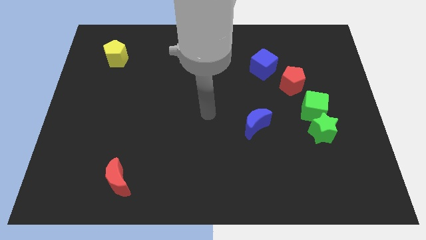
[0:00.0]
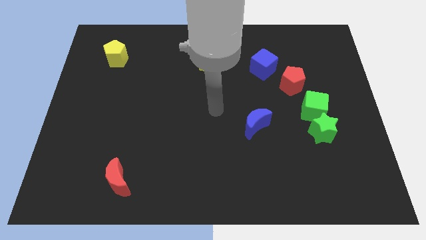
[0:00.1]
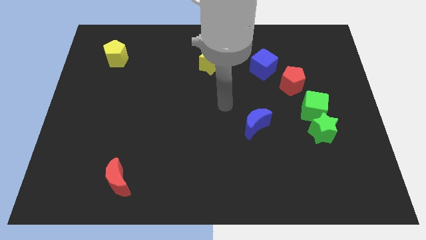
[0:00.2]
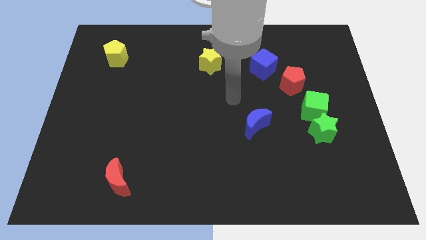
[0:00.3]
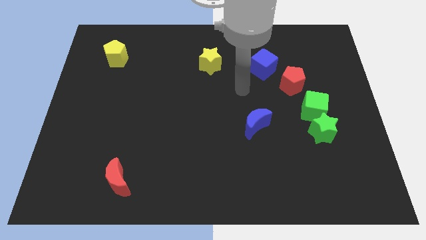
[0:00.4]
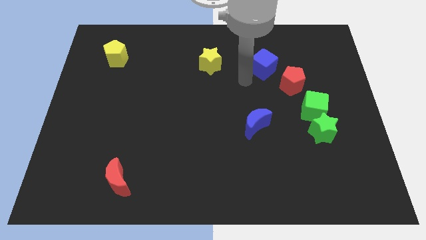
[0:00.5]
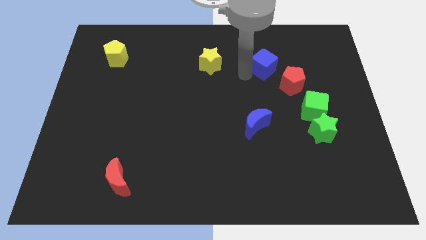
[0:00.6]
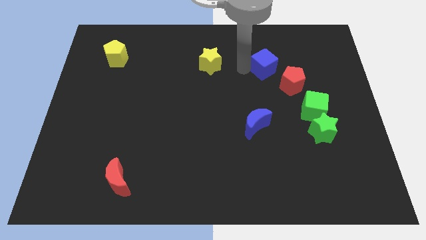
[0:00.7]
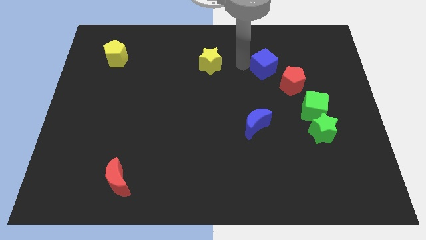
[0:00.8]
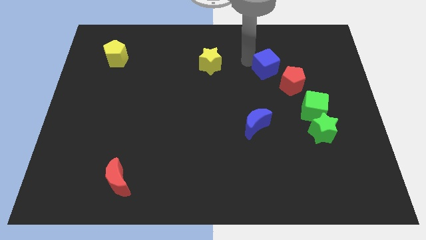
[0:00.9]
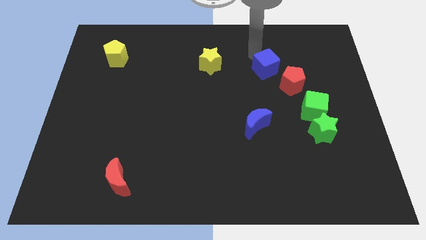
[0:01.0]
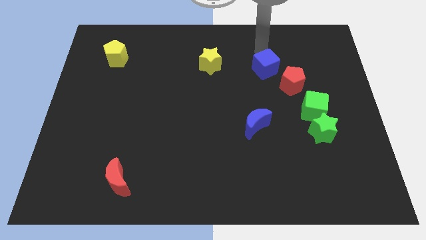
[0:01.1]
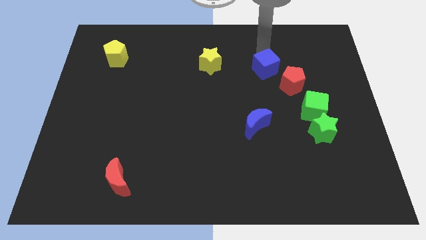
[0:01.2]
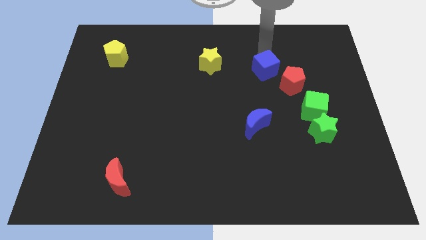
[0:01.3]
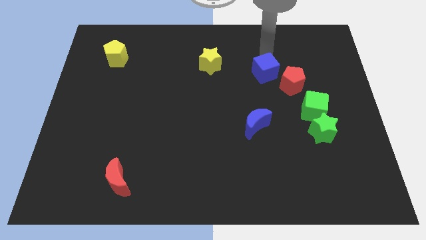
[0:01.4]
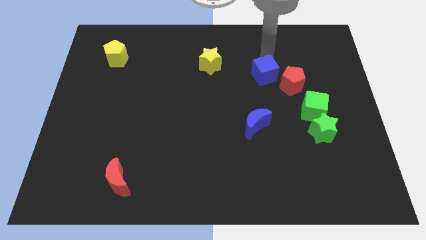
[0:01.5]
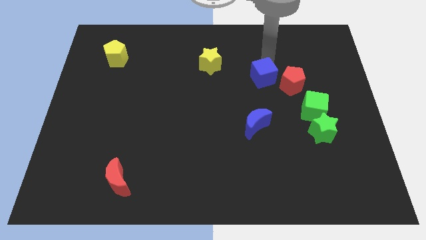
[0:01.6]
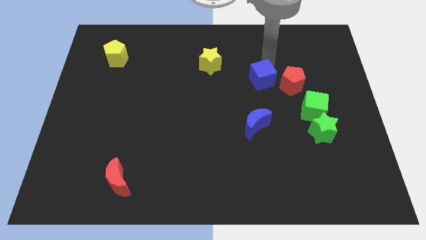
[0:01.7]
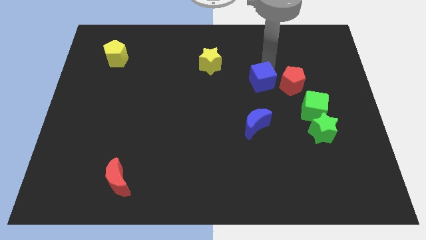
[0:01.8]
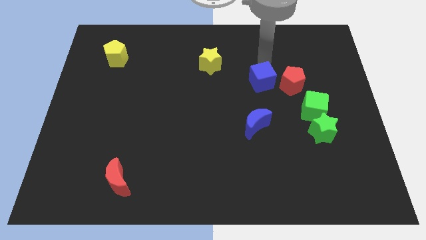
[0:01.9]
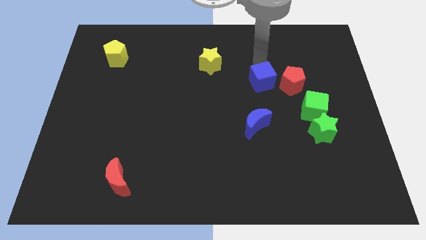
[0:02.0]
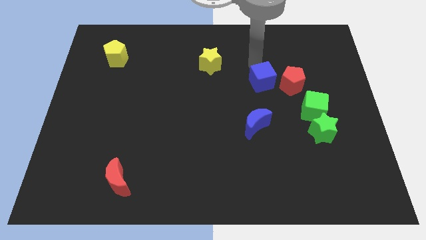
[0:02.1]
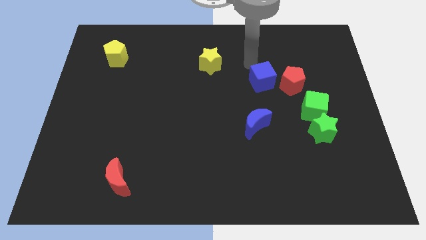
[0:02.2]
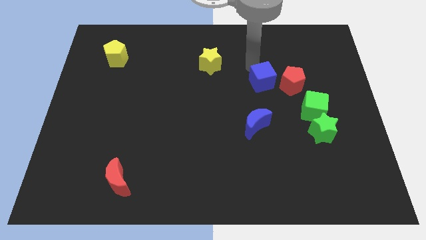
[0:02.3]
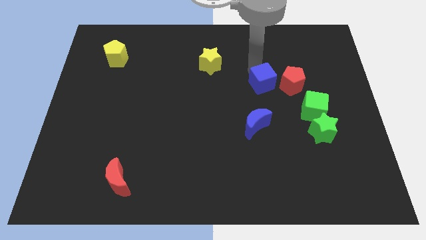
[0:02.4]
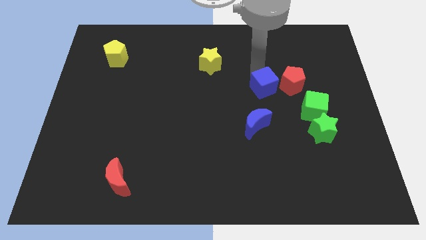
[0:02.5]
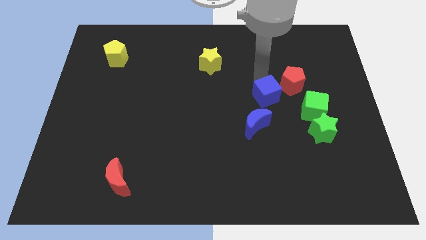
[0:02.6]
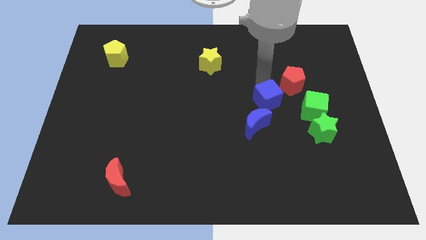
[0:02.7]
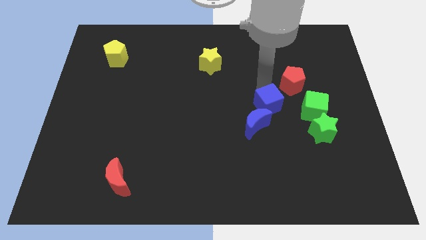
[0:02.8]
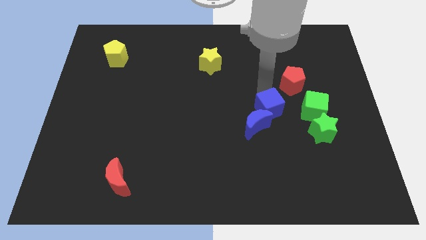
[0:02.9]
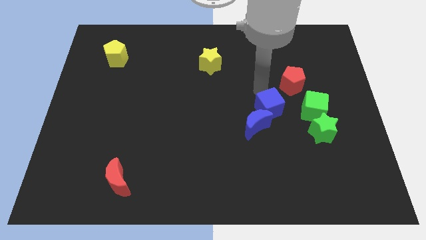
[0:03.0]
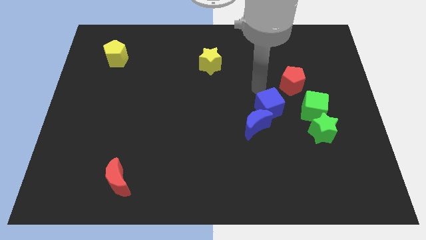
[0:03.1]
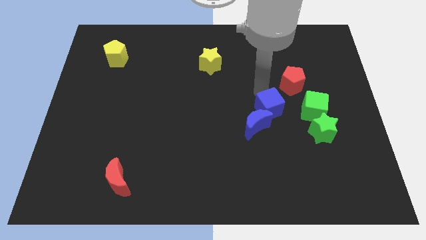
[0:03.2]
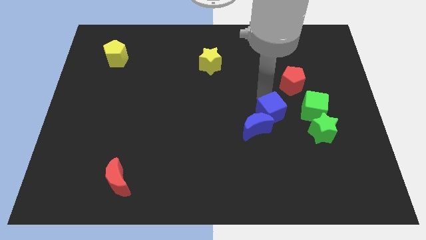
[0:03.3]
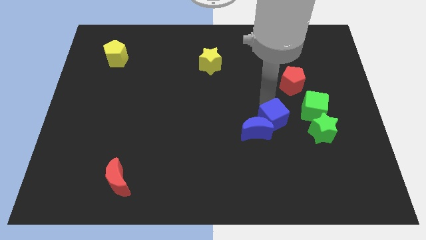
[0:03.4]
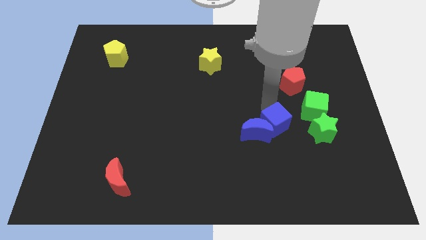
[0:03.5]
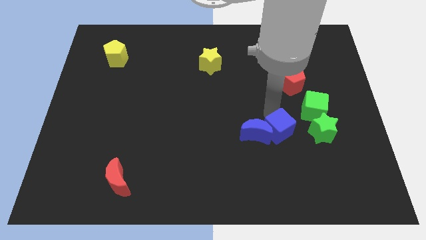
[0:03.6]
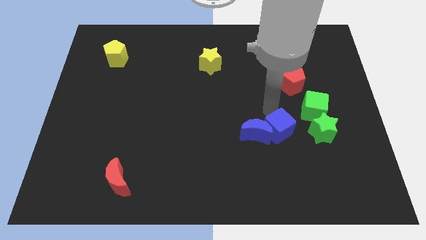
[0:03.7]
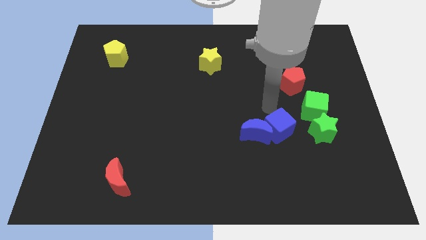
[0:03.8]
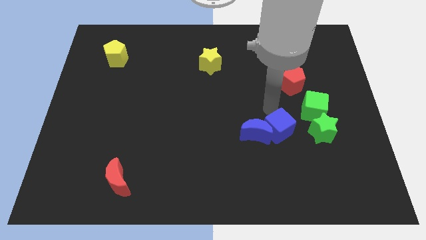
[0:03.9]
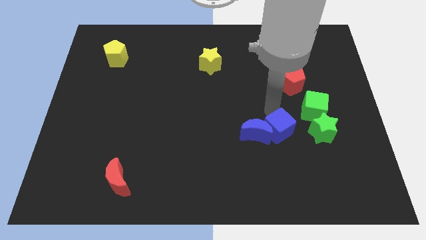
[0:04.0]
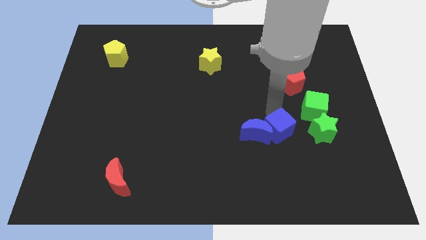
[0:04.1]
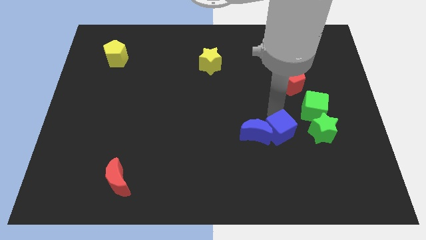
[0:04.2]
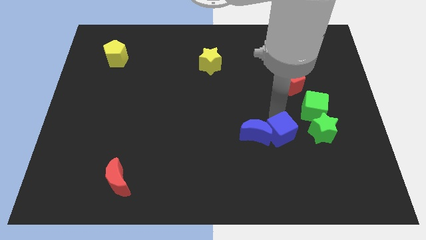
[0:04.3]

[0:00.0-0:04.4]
slide the blue cube downwards

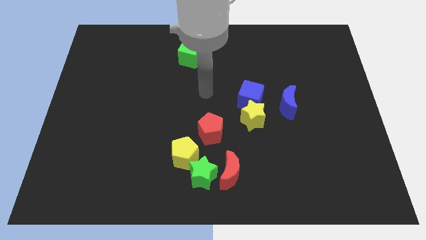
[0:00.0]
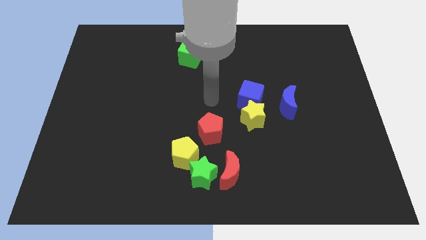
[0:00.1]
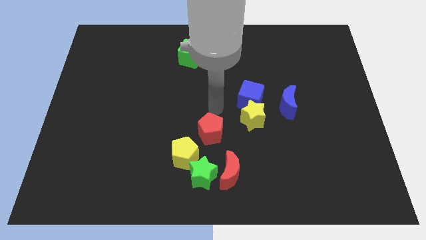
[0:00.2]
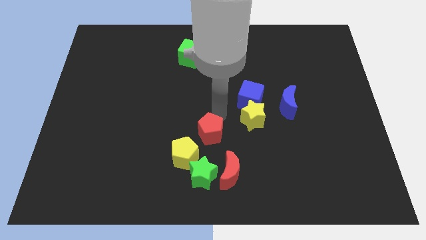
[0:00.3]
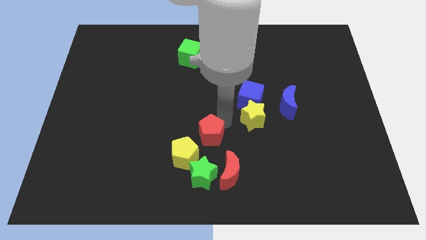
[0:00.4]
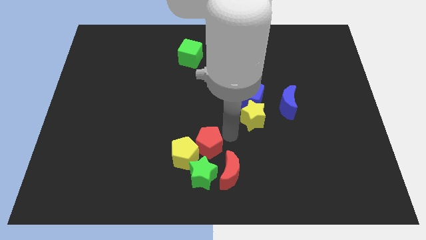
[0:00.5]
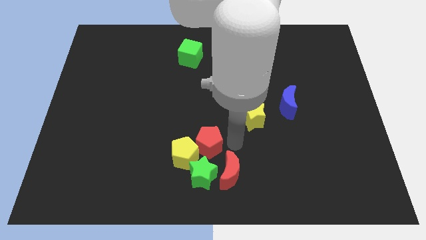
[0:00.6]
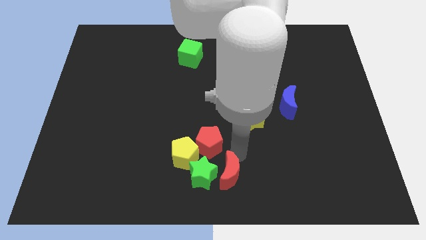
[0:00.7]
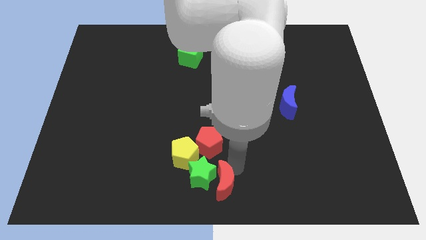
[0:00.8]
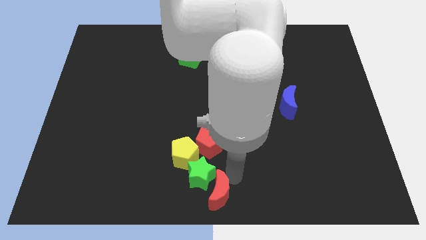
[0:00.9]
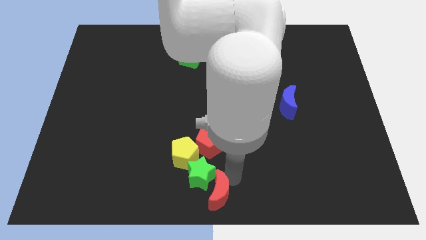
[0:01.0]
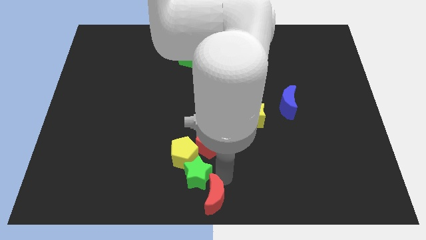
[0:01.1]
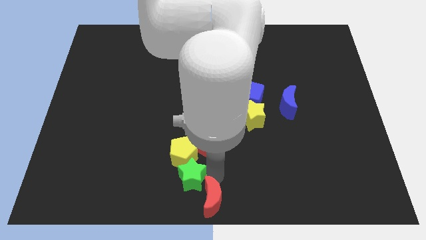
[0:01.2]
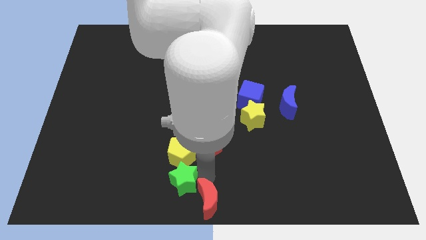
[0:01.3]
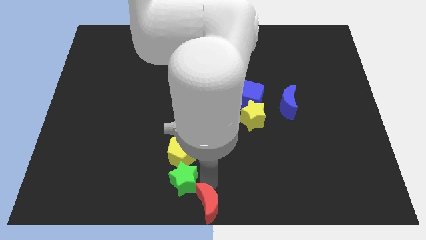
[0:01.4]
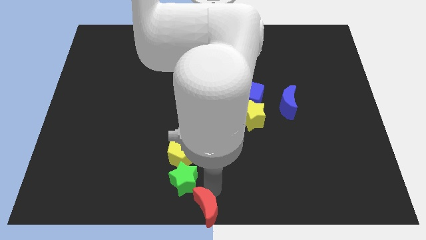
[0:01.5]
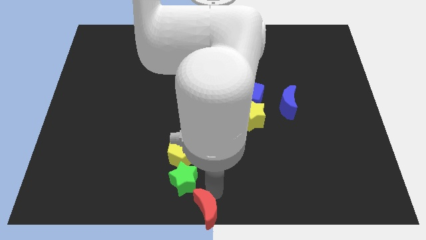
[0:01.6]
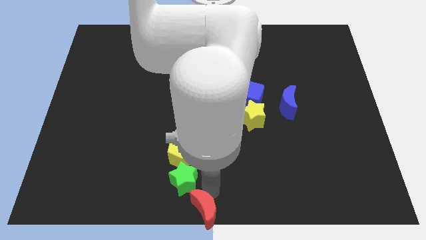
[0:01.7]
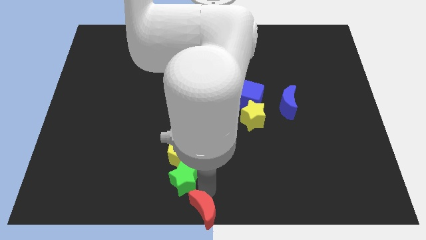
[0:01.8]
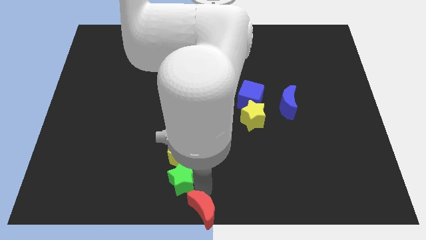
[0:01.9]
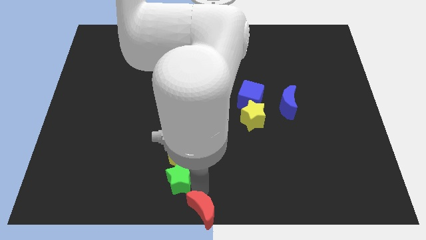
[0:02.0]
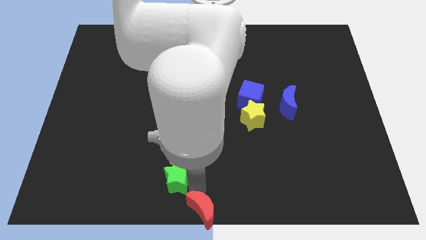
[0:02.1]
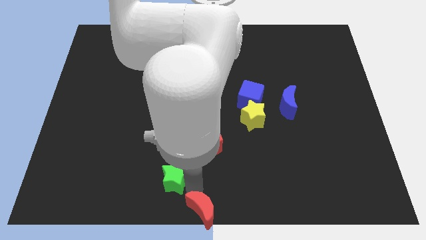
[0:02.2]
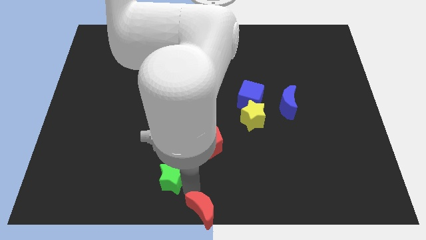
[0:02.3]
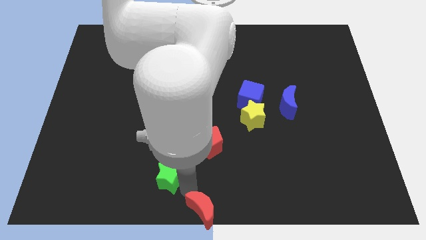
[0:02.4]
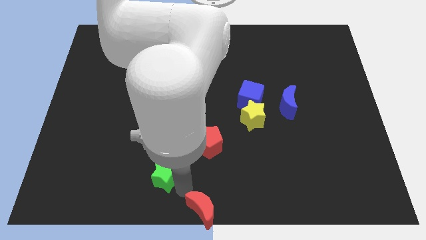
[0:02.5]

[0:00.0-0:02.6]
slightly slide the green star left

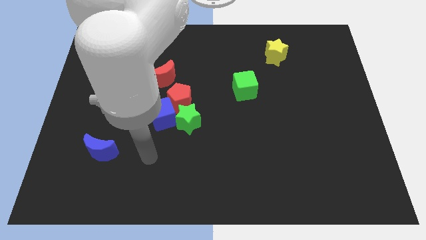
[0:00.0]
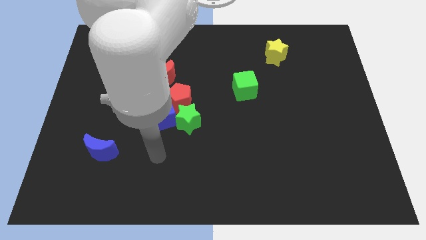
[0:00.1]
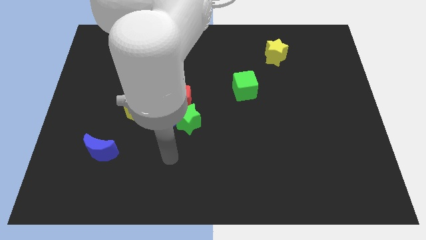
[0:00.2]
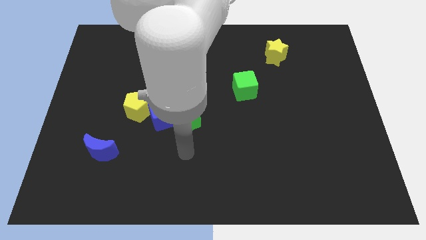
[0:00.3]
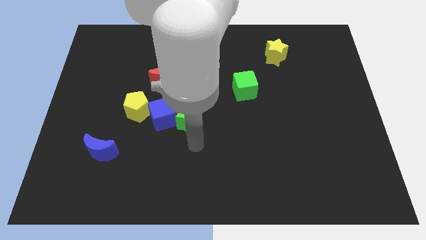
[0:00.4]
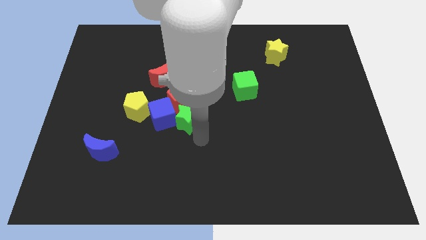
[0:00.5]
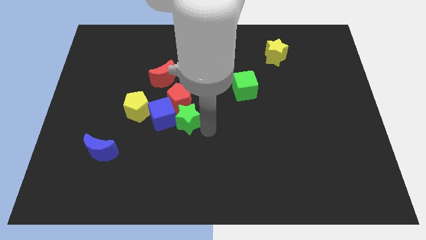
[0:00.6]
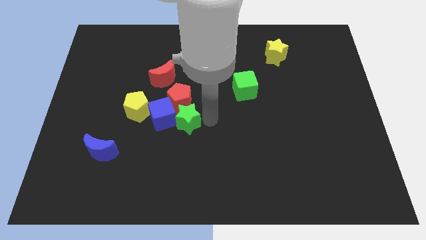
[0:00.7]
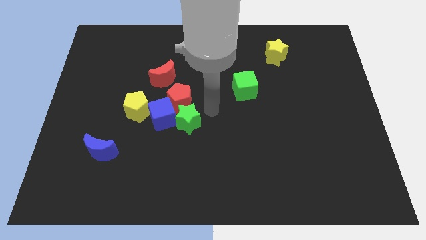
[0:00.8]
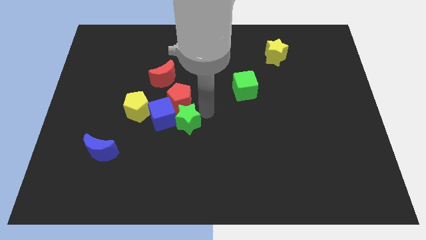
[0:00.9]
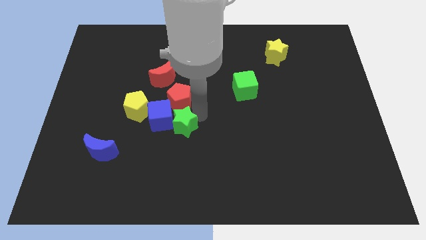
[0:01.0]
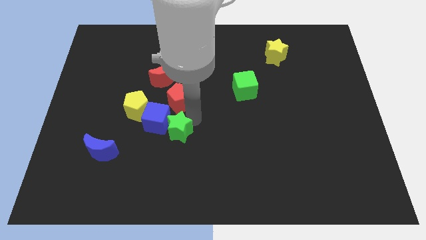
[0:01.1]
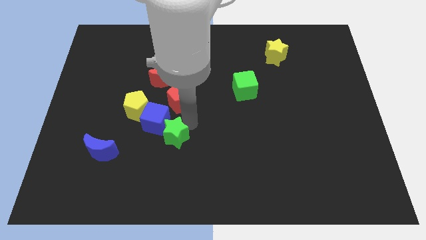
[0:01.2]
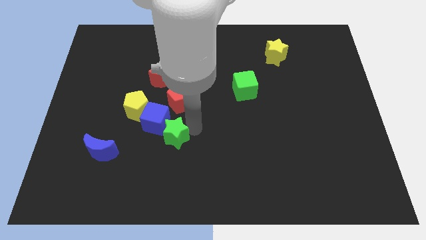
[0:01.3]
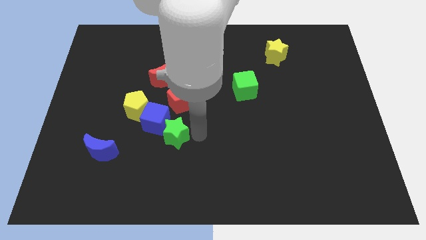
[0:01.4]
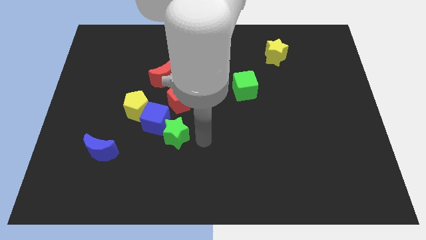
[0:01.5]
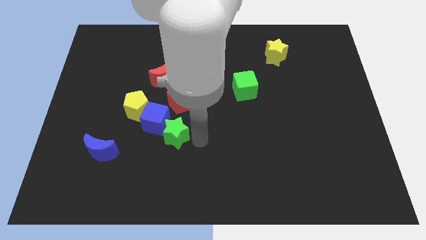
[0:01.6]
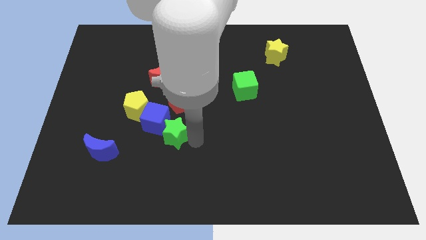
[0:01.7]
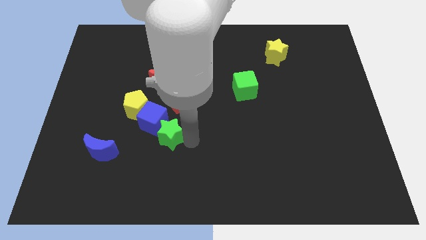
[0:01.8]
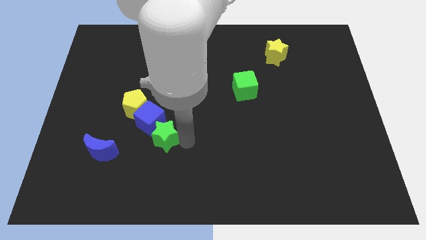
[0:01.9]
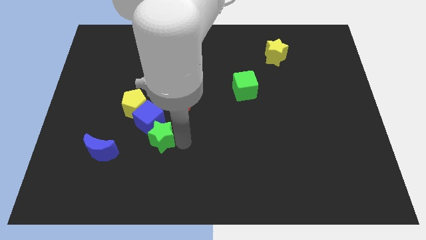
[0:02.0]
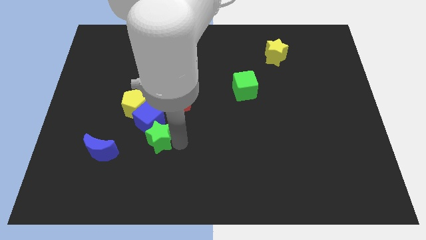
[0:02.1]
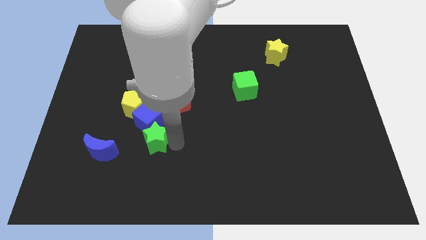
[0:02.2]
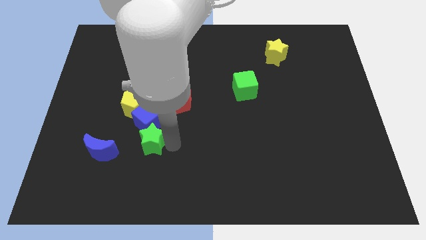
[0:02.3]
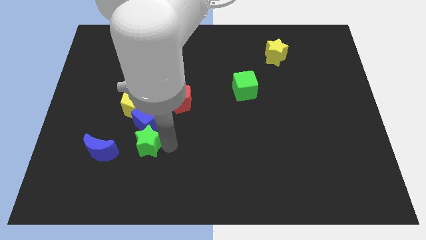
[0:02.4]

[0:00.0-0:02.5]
slightly push the green star to the left
